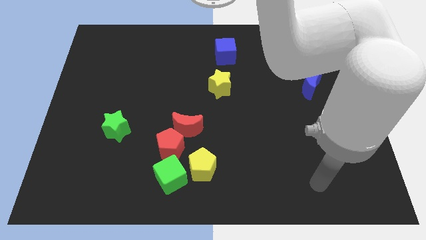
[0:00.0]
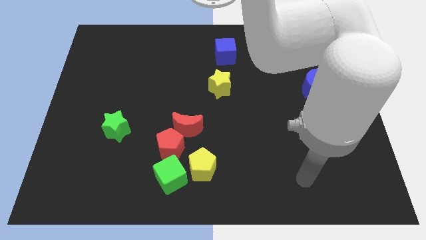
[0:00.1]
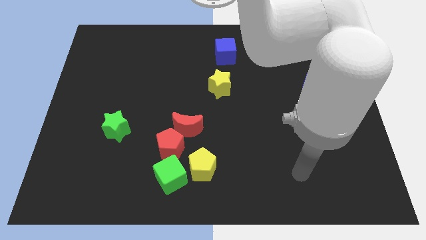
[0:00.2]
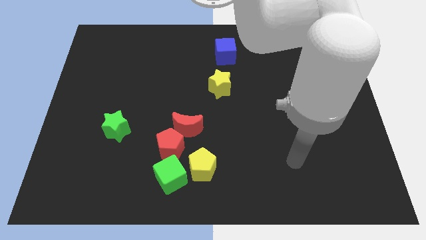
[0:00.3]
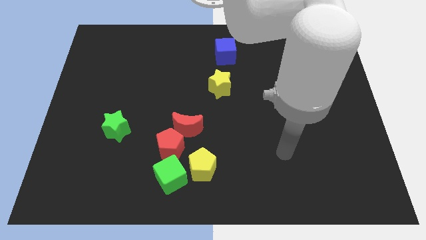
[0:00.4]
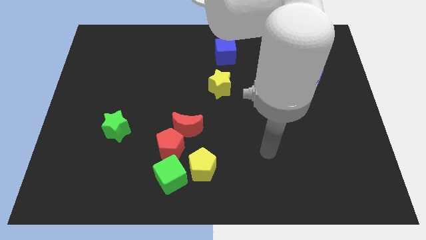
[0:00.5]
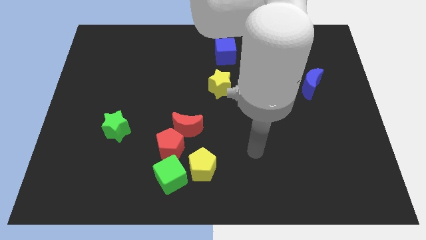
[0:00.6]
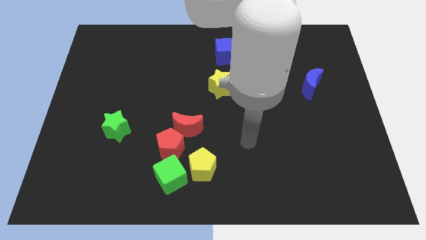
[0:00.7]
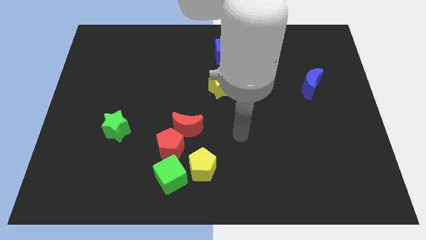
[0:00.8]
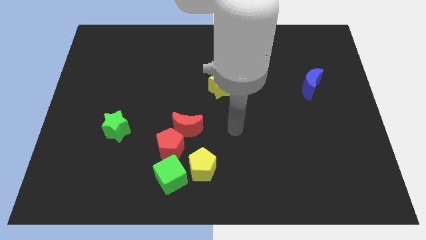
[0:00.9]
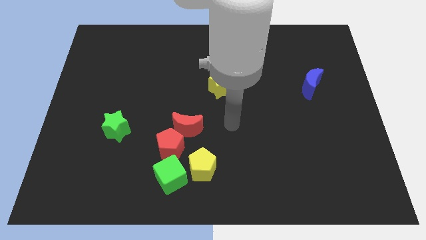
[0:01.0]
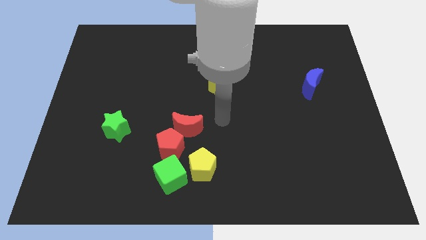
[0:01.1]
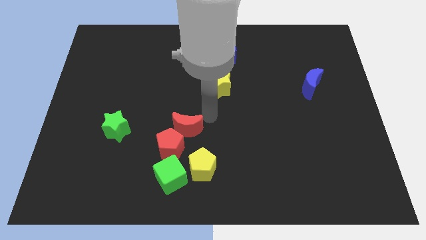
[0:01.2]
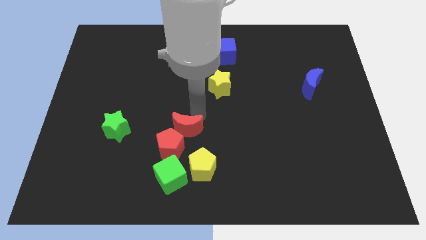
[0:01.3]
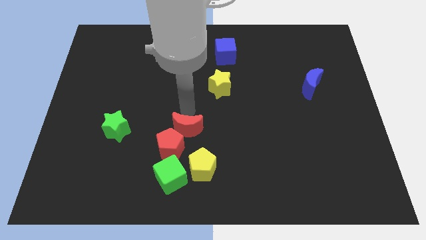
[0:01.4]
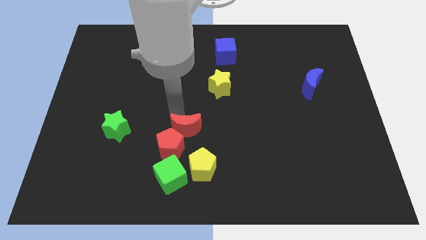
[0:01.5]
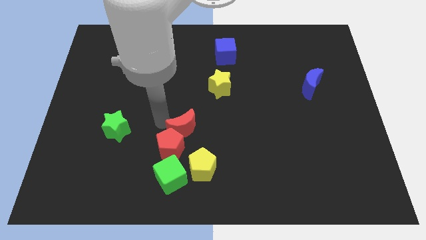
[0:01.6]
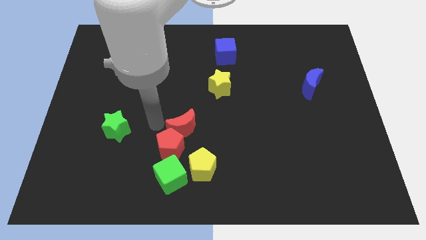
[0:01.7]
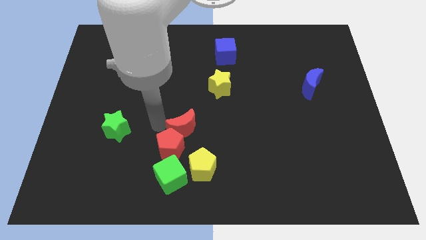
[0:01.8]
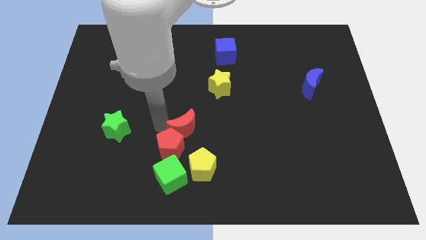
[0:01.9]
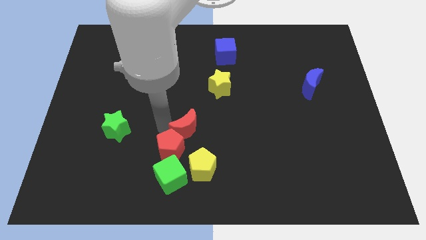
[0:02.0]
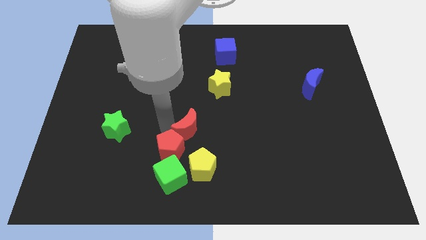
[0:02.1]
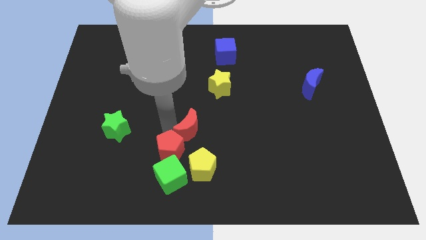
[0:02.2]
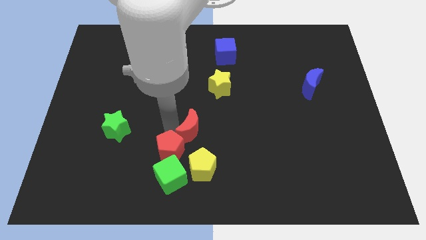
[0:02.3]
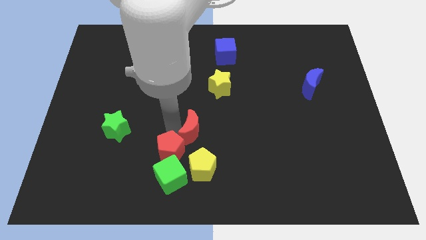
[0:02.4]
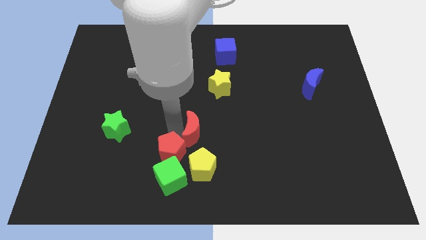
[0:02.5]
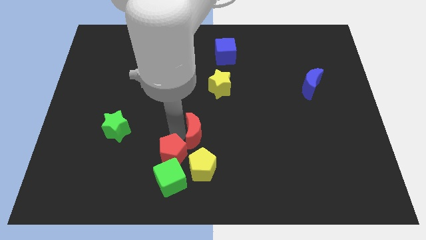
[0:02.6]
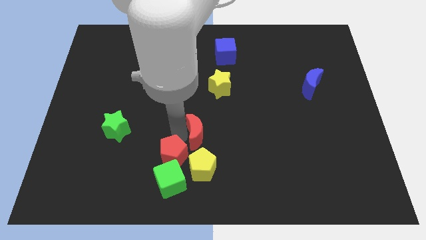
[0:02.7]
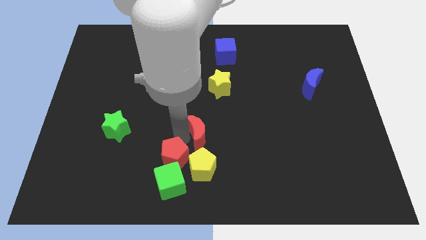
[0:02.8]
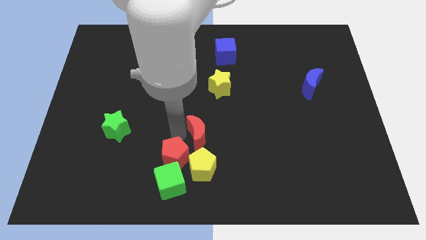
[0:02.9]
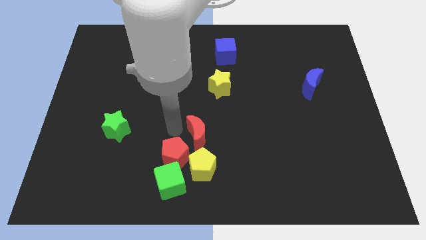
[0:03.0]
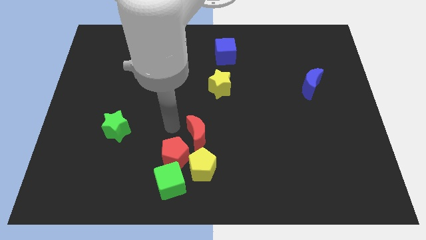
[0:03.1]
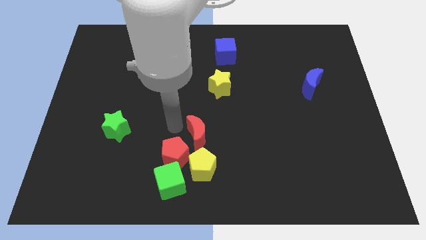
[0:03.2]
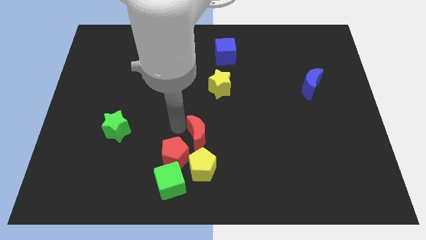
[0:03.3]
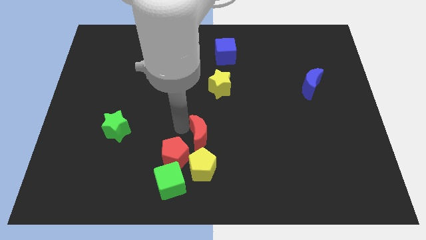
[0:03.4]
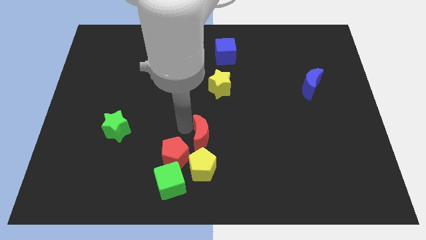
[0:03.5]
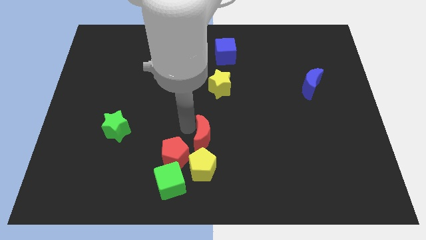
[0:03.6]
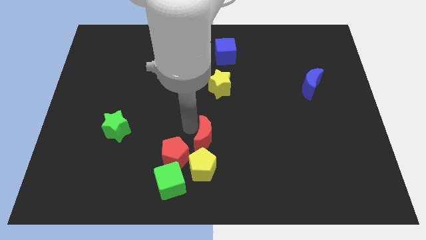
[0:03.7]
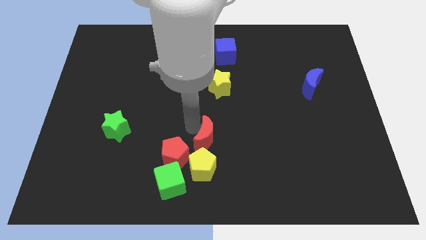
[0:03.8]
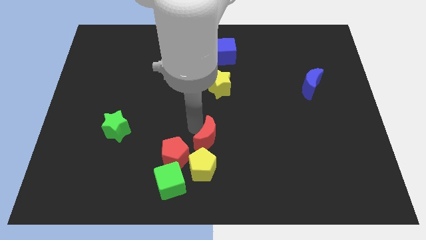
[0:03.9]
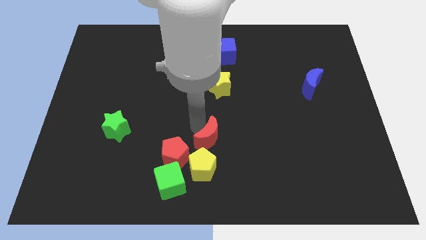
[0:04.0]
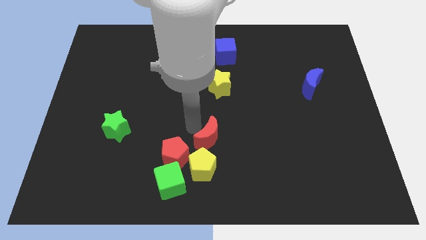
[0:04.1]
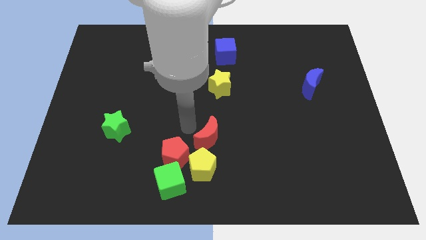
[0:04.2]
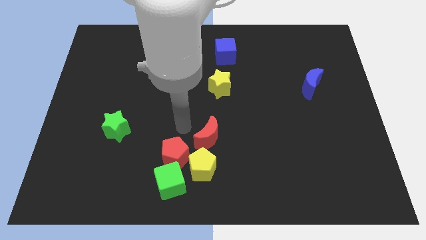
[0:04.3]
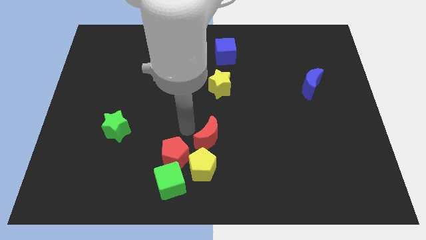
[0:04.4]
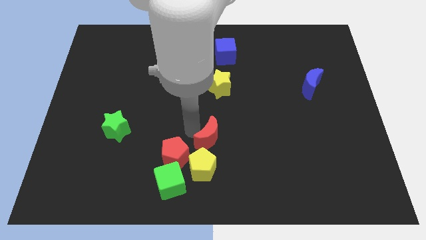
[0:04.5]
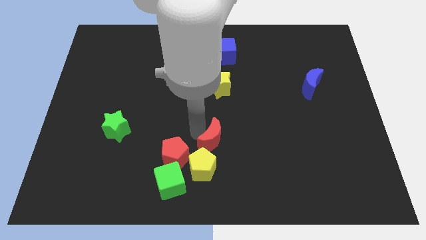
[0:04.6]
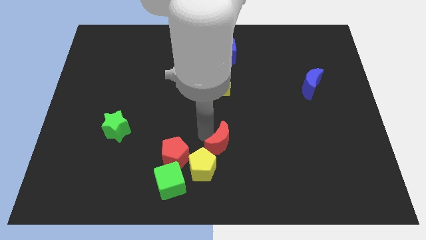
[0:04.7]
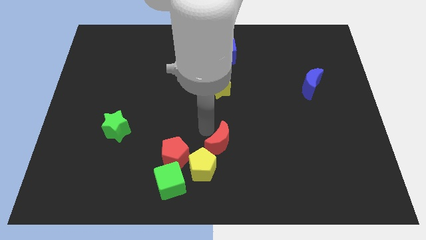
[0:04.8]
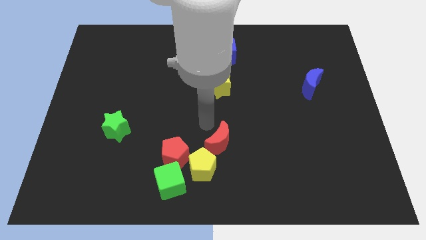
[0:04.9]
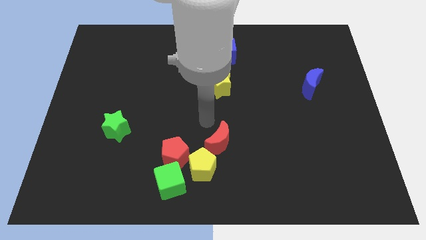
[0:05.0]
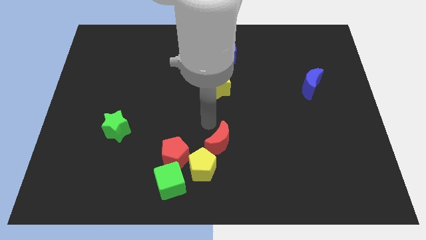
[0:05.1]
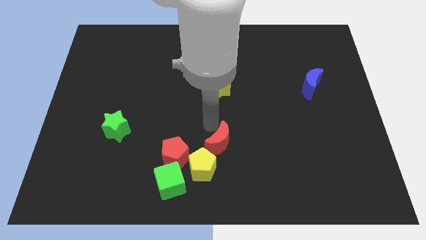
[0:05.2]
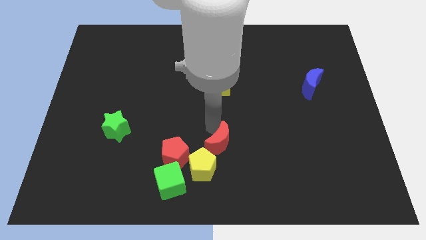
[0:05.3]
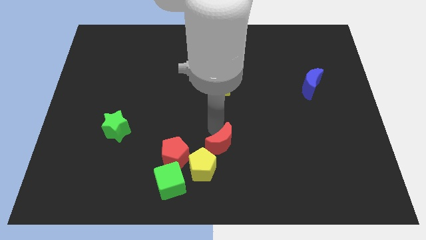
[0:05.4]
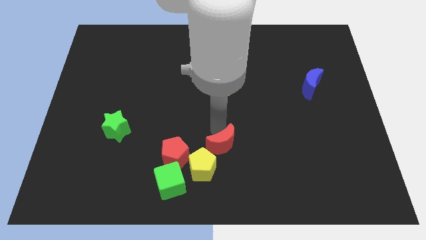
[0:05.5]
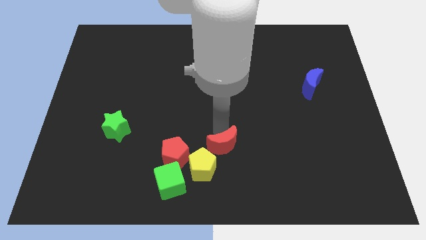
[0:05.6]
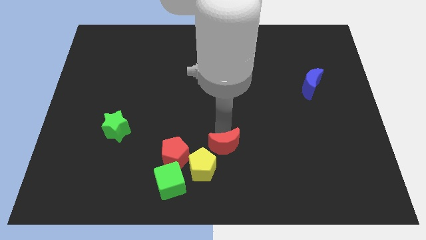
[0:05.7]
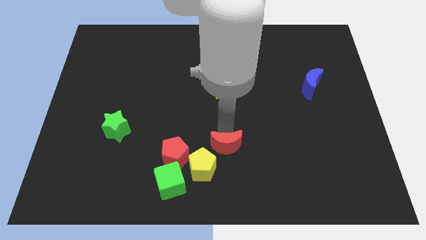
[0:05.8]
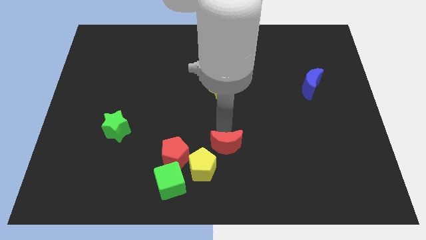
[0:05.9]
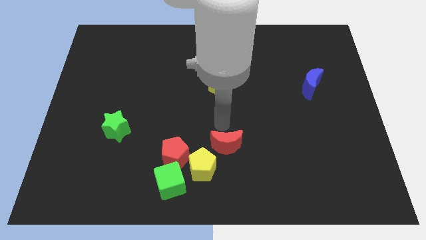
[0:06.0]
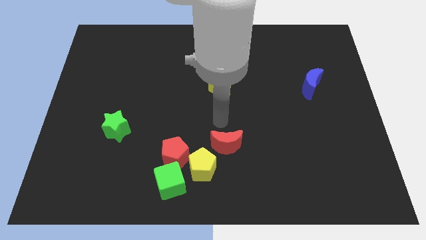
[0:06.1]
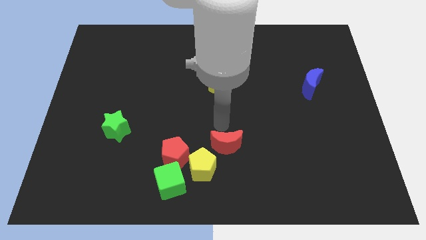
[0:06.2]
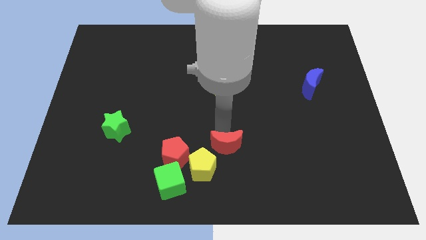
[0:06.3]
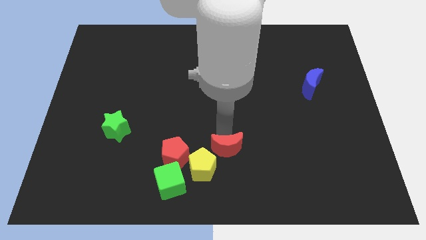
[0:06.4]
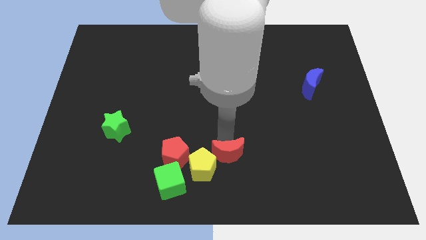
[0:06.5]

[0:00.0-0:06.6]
put the red moon to the bottom
